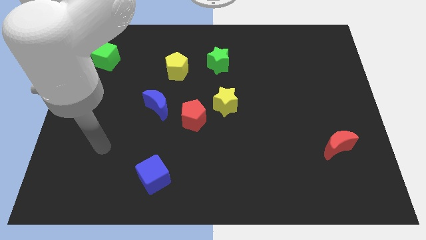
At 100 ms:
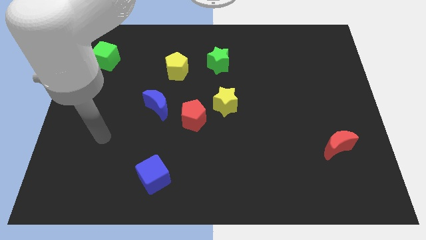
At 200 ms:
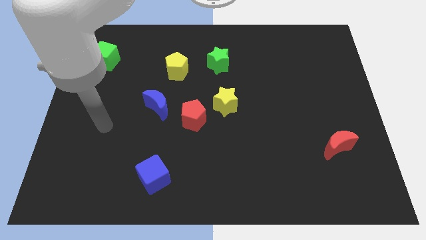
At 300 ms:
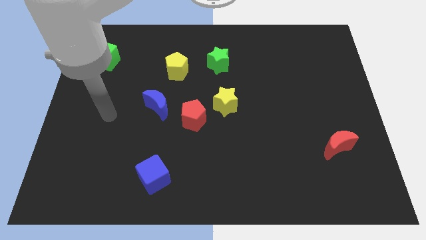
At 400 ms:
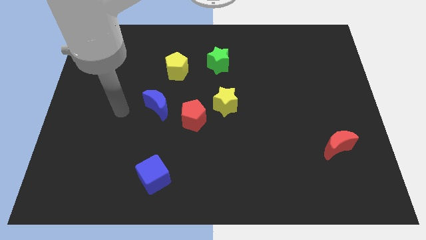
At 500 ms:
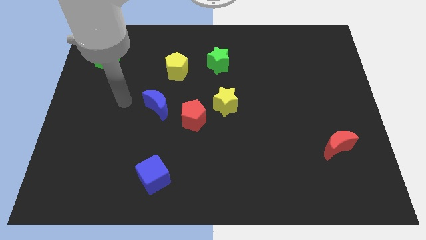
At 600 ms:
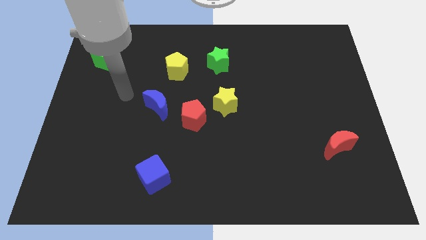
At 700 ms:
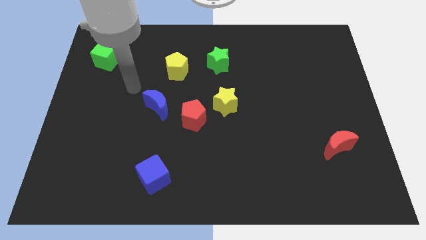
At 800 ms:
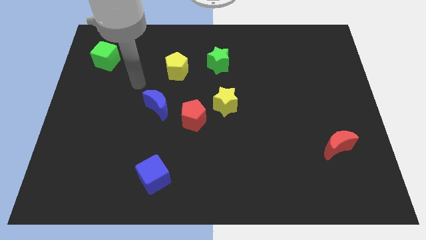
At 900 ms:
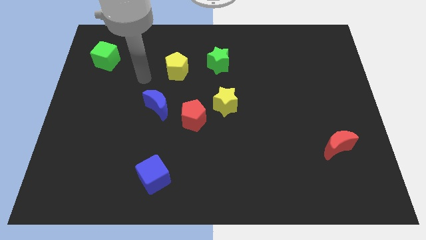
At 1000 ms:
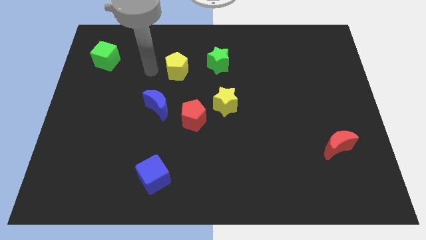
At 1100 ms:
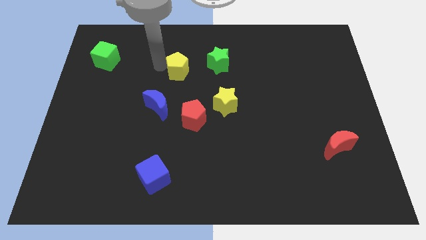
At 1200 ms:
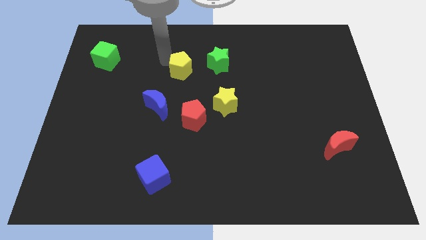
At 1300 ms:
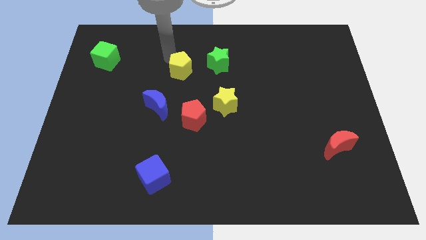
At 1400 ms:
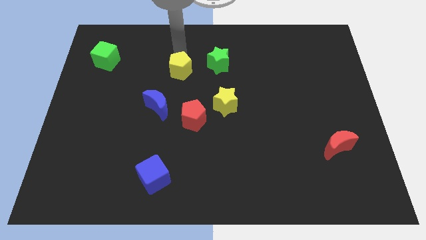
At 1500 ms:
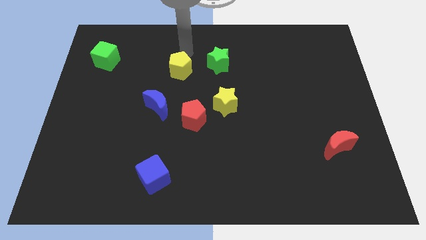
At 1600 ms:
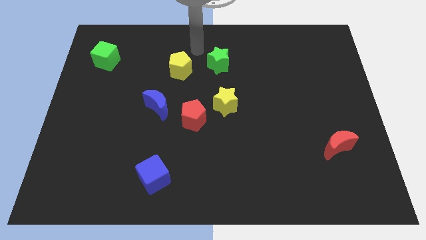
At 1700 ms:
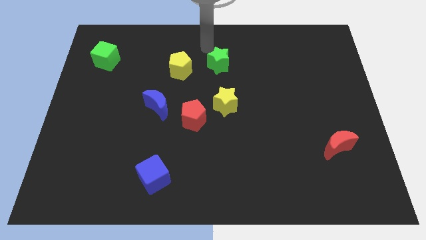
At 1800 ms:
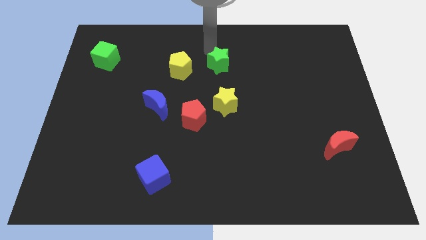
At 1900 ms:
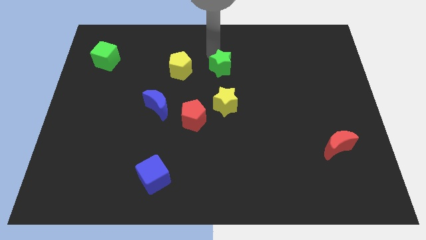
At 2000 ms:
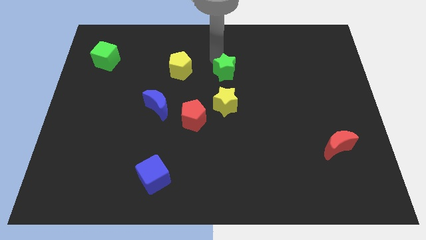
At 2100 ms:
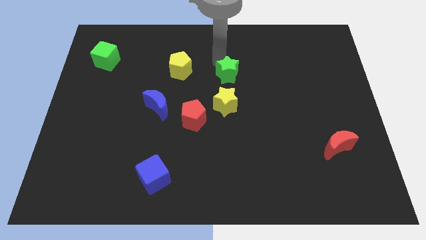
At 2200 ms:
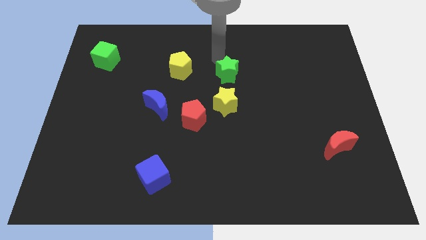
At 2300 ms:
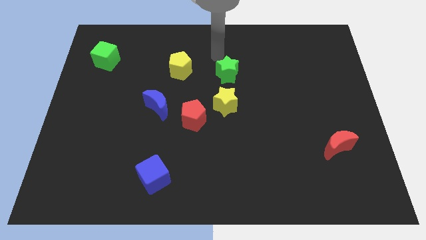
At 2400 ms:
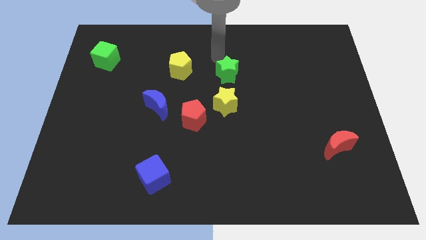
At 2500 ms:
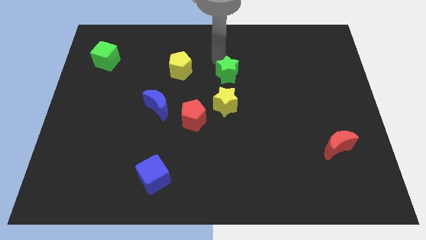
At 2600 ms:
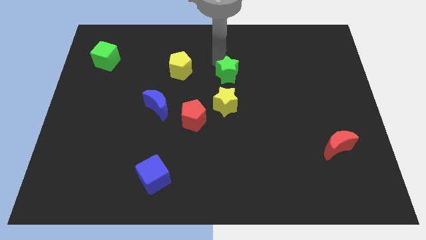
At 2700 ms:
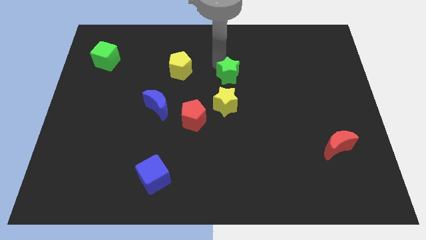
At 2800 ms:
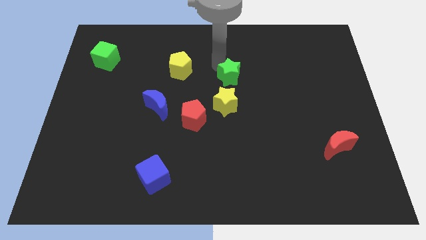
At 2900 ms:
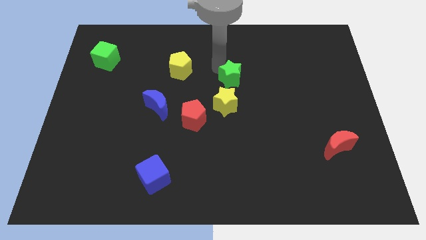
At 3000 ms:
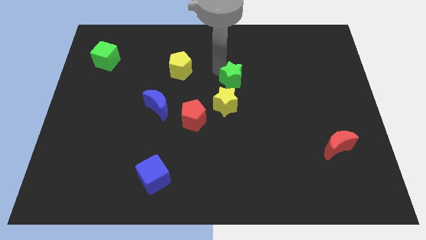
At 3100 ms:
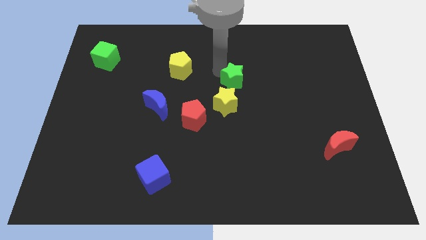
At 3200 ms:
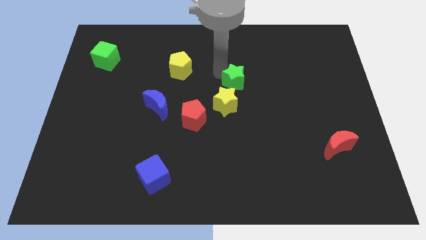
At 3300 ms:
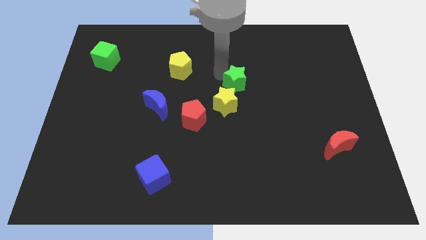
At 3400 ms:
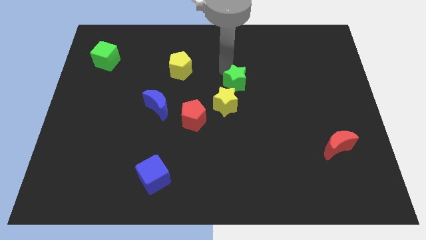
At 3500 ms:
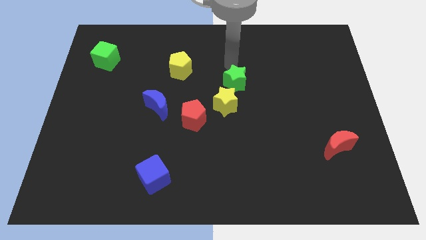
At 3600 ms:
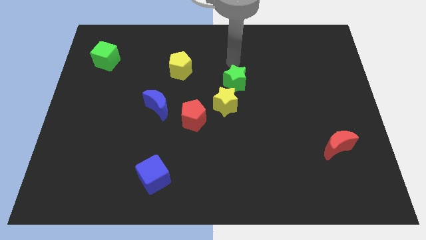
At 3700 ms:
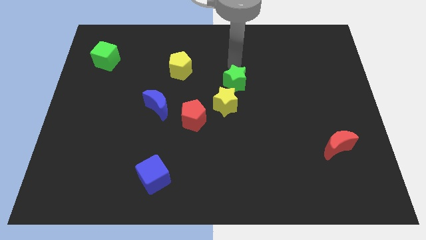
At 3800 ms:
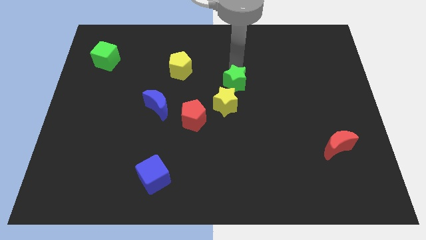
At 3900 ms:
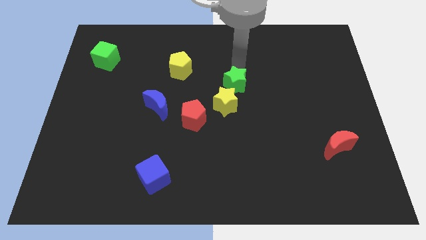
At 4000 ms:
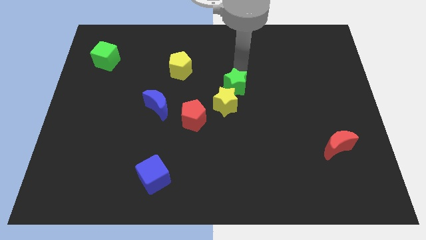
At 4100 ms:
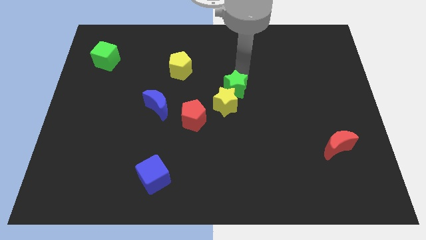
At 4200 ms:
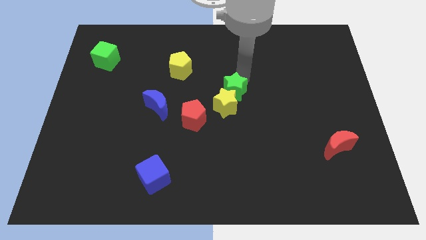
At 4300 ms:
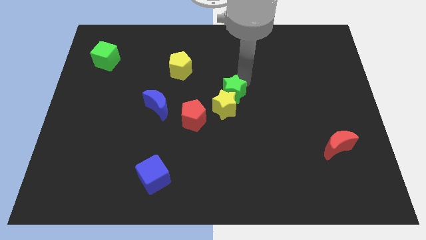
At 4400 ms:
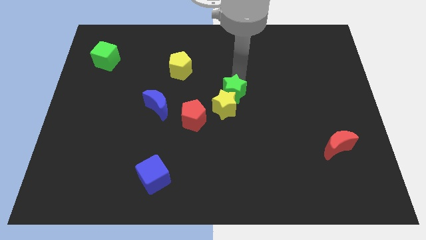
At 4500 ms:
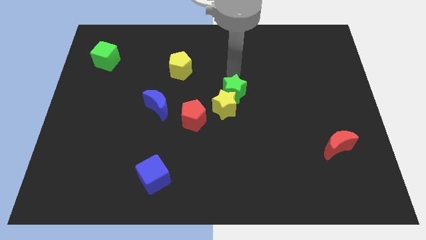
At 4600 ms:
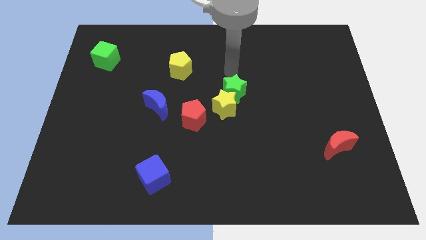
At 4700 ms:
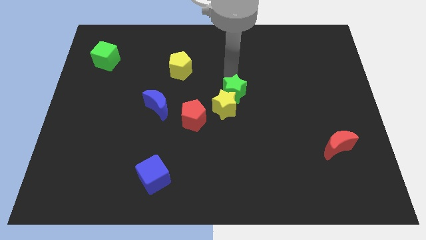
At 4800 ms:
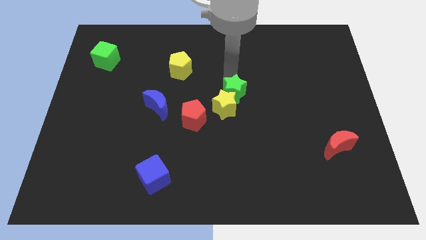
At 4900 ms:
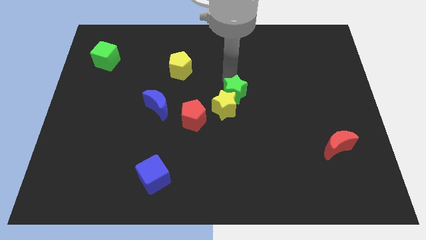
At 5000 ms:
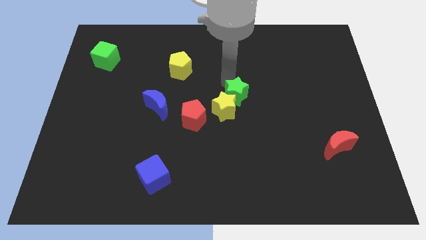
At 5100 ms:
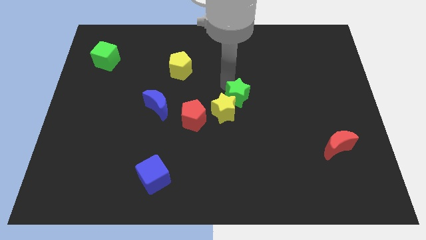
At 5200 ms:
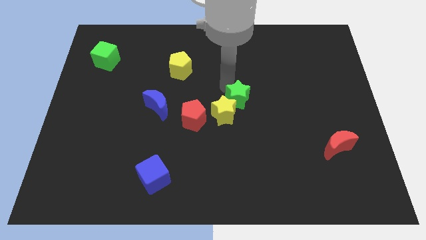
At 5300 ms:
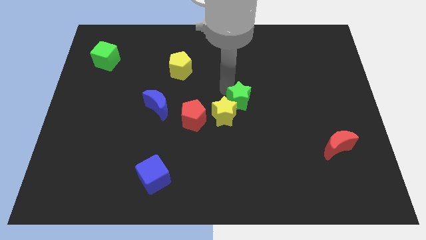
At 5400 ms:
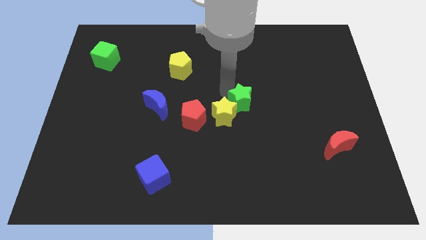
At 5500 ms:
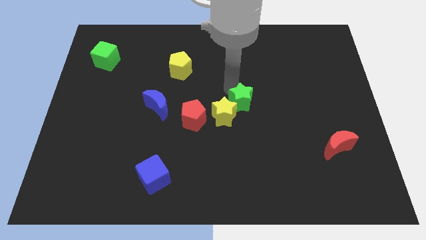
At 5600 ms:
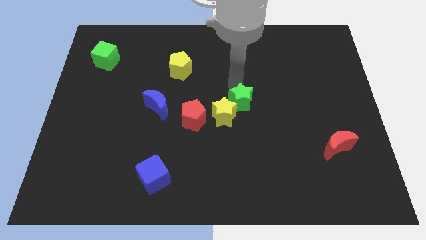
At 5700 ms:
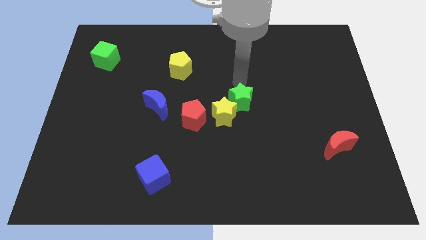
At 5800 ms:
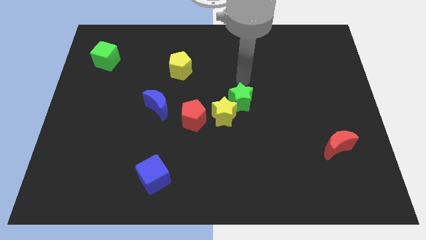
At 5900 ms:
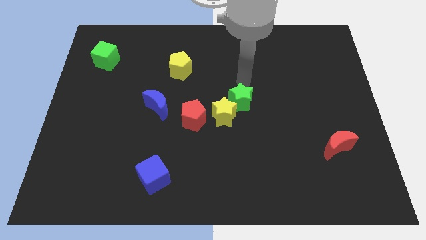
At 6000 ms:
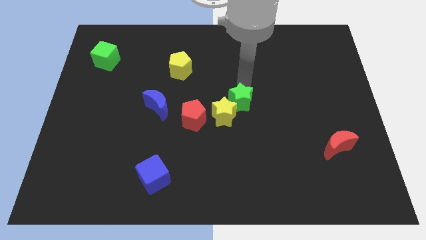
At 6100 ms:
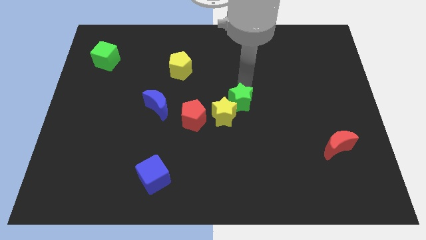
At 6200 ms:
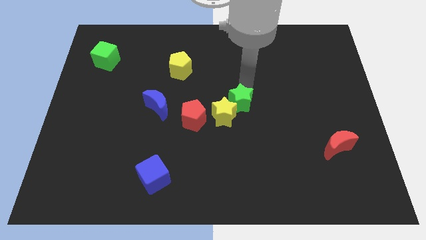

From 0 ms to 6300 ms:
slide the green star to the right side of the red pentagon

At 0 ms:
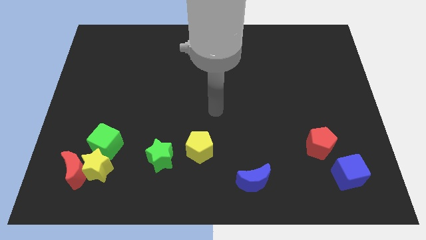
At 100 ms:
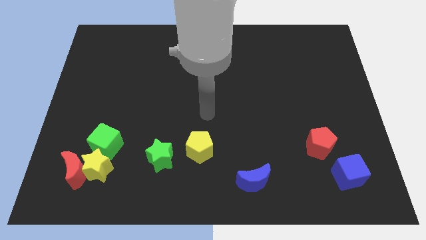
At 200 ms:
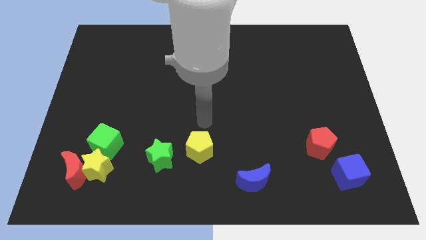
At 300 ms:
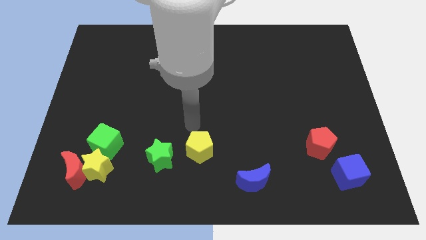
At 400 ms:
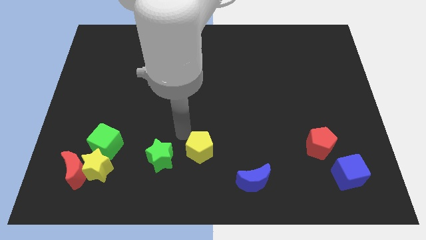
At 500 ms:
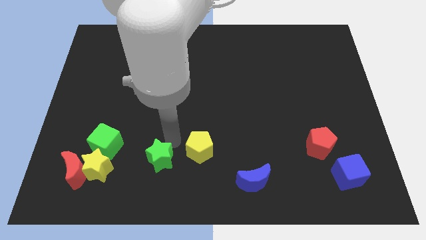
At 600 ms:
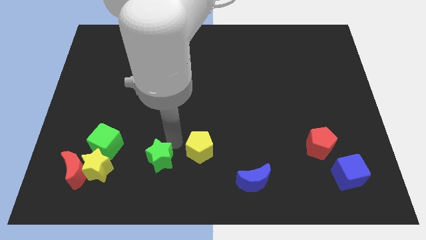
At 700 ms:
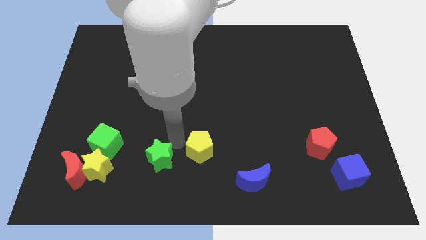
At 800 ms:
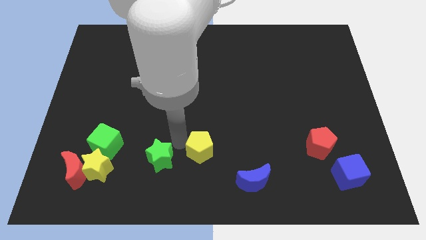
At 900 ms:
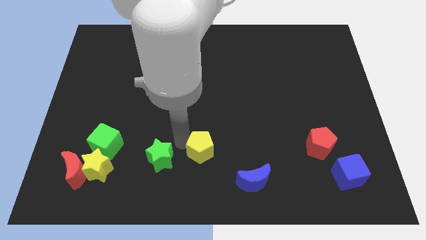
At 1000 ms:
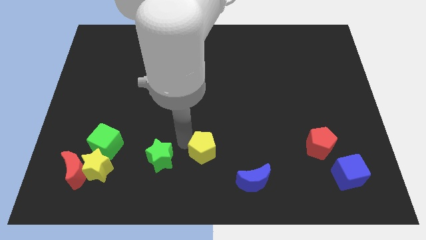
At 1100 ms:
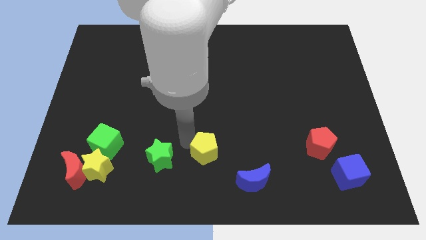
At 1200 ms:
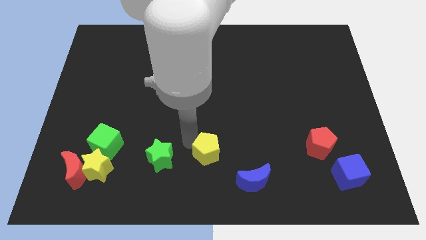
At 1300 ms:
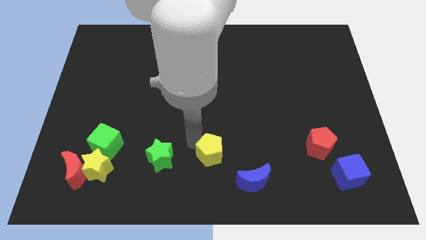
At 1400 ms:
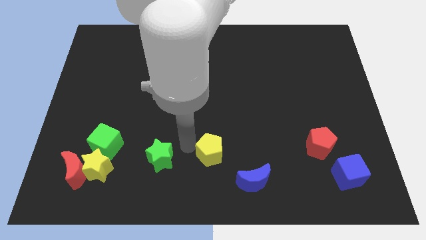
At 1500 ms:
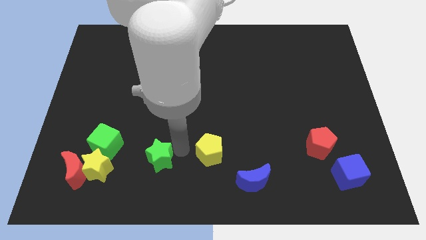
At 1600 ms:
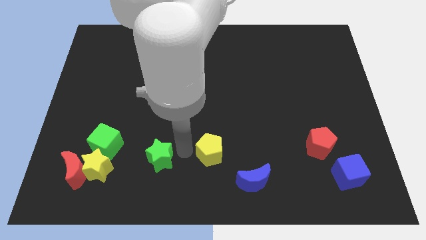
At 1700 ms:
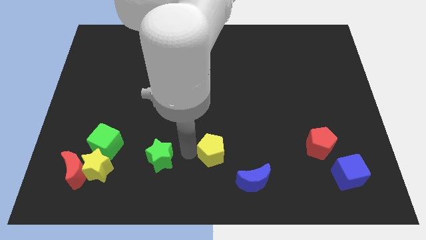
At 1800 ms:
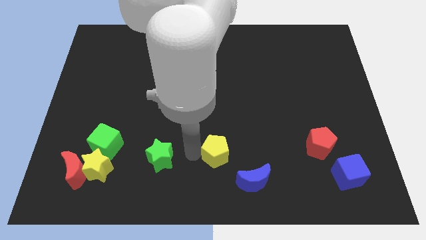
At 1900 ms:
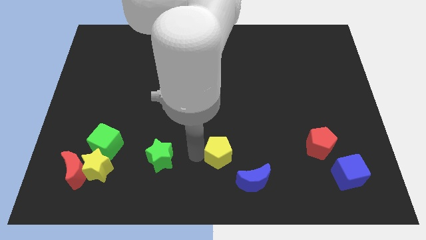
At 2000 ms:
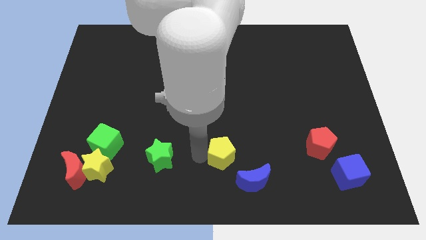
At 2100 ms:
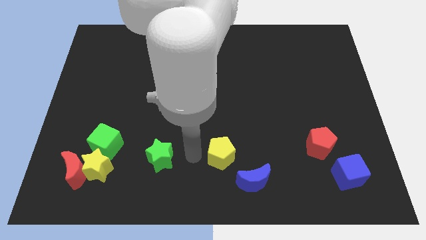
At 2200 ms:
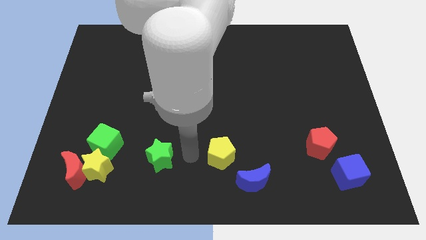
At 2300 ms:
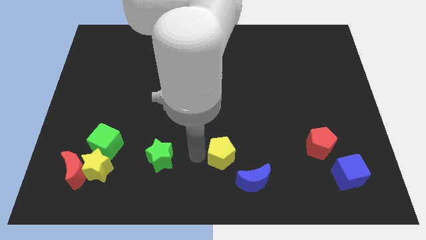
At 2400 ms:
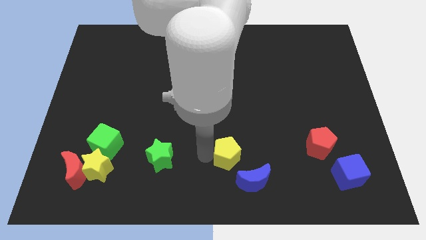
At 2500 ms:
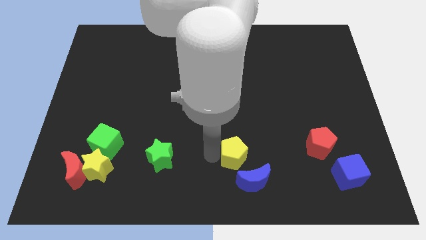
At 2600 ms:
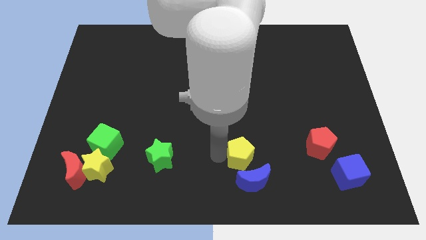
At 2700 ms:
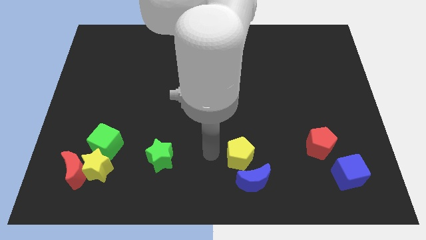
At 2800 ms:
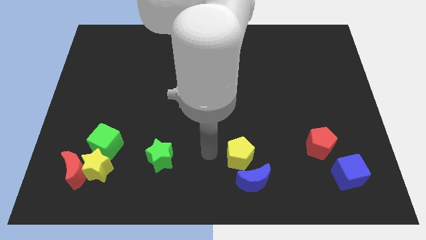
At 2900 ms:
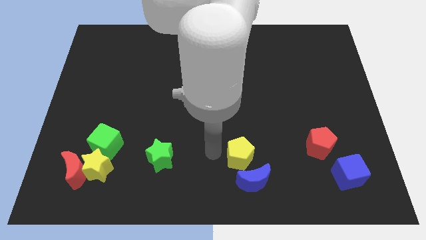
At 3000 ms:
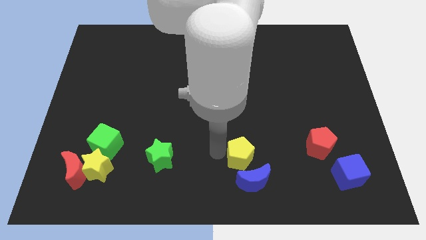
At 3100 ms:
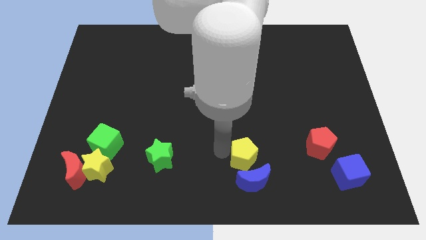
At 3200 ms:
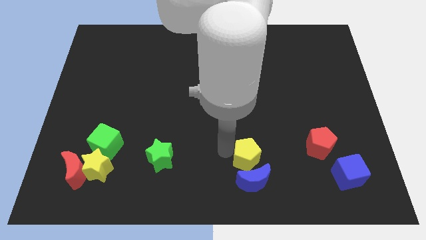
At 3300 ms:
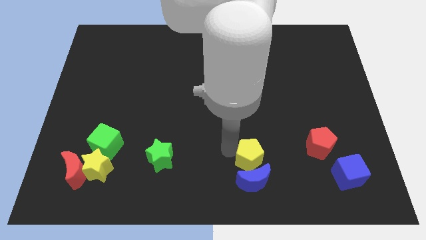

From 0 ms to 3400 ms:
move the yellow pentagon to the top right of the blue moon
